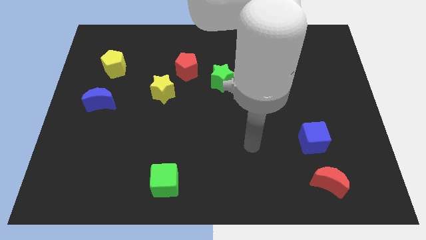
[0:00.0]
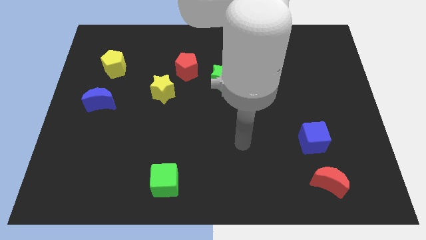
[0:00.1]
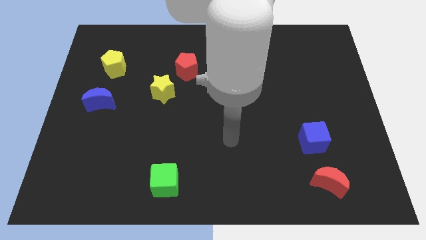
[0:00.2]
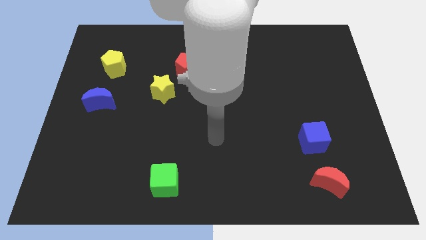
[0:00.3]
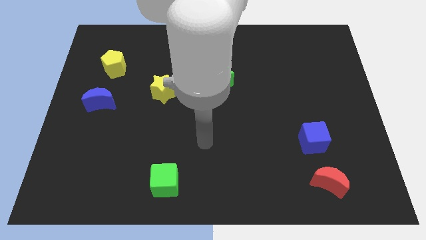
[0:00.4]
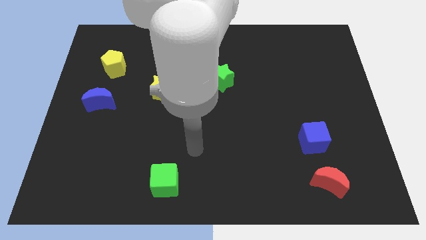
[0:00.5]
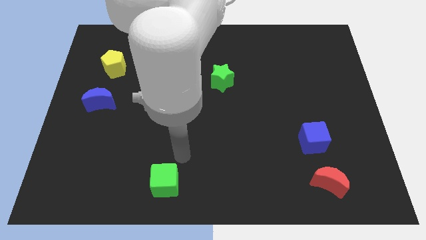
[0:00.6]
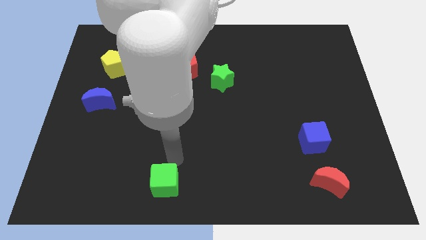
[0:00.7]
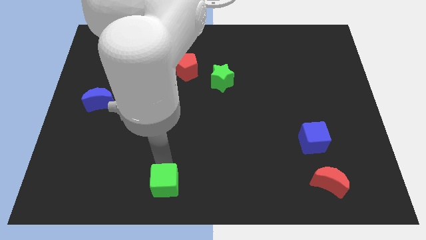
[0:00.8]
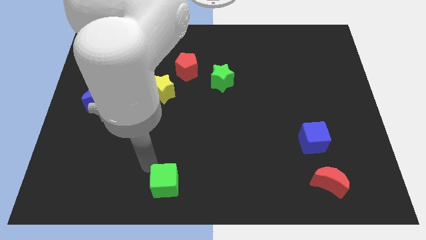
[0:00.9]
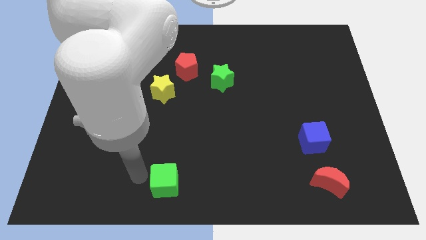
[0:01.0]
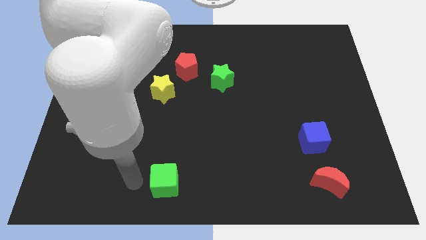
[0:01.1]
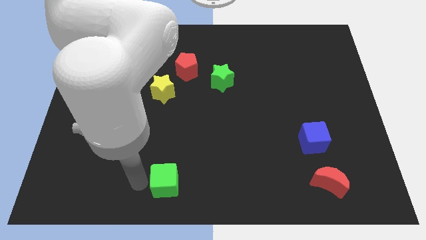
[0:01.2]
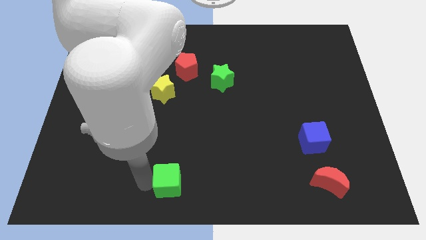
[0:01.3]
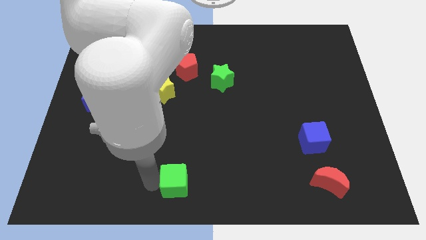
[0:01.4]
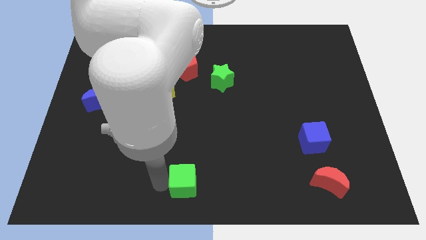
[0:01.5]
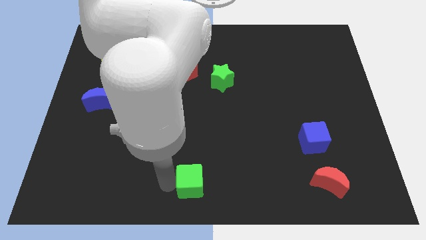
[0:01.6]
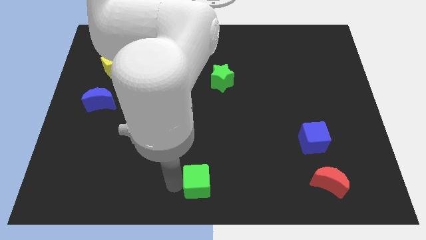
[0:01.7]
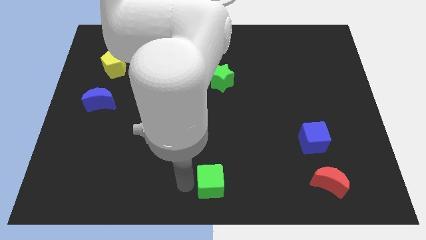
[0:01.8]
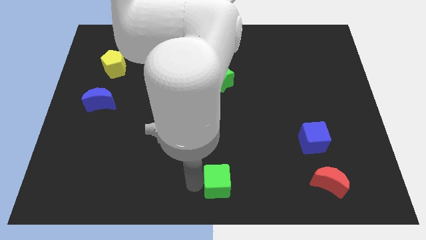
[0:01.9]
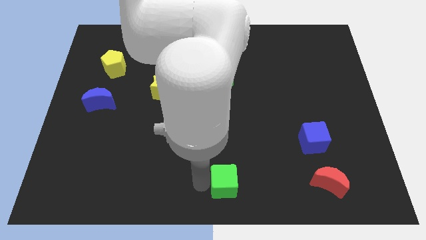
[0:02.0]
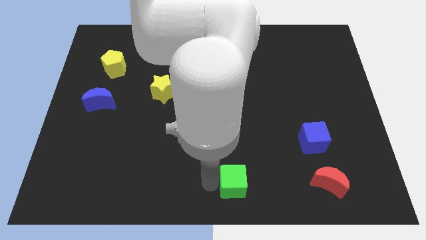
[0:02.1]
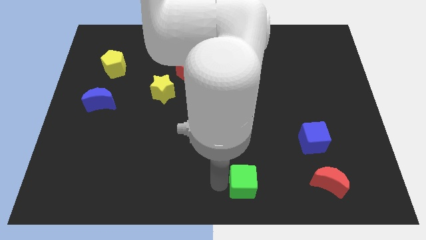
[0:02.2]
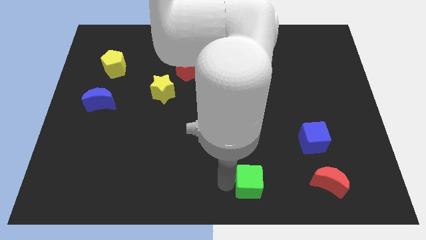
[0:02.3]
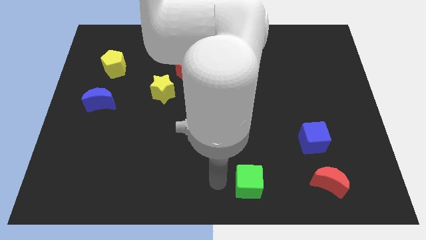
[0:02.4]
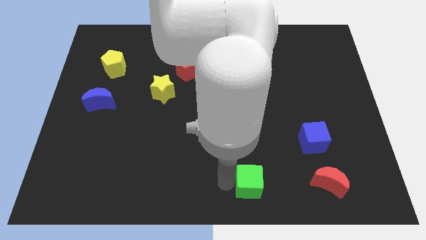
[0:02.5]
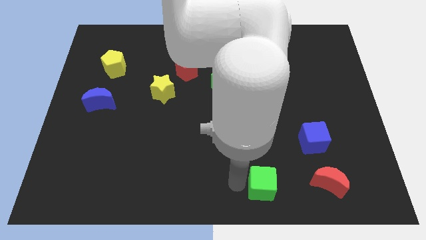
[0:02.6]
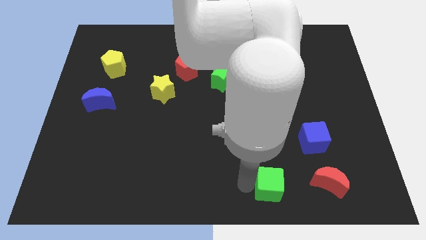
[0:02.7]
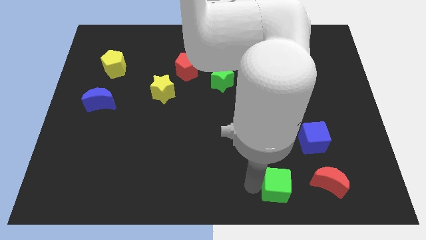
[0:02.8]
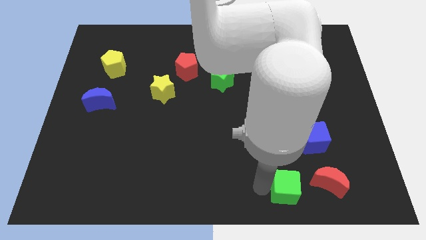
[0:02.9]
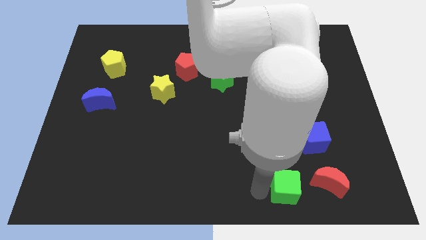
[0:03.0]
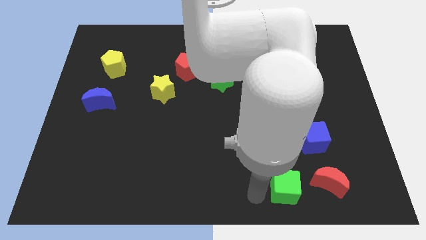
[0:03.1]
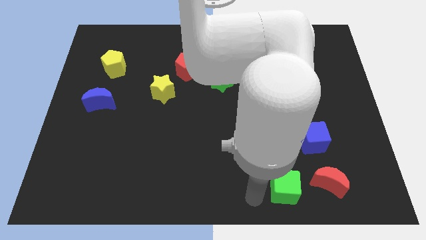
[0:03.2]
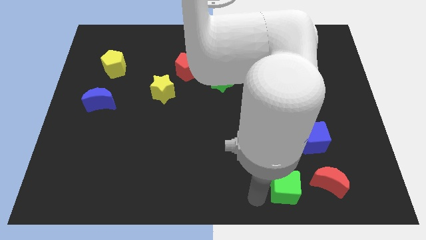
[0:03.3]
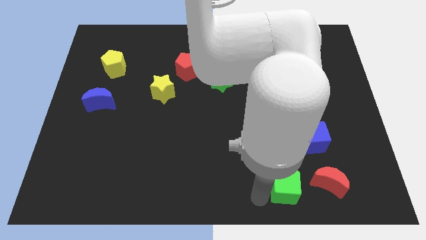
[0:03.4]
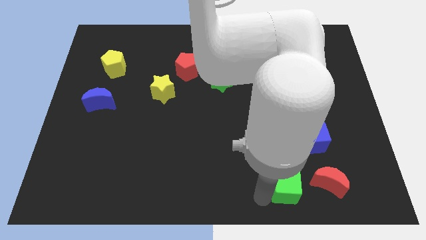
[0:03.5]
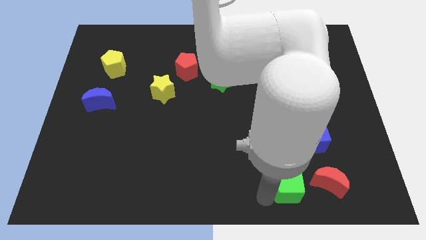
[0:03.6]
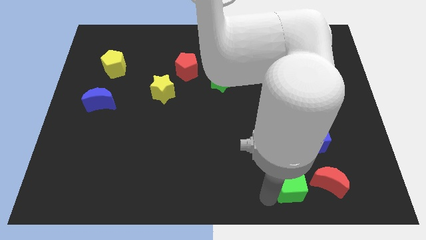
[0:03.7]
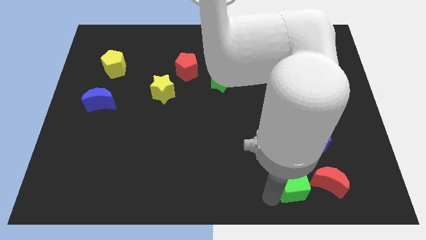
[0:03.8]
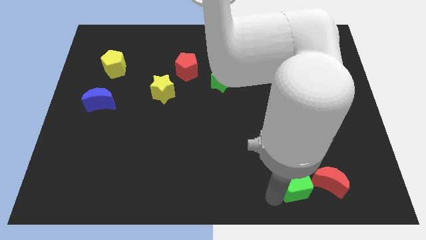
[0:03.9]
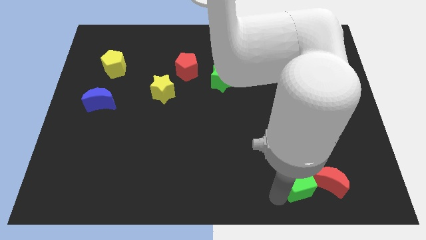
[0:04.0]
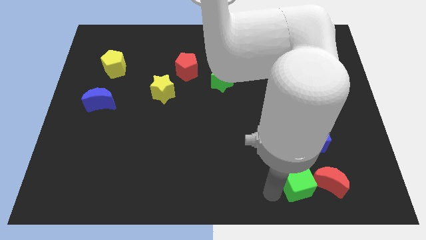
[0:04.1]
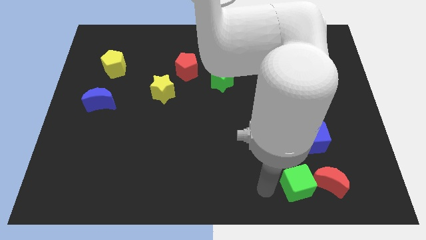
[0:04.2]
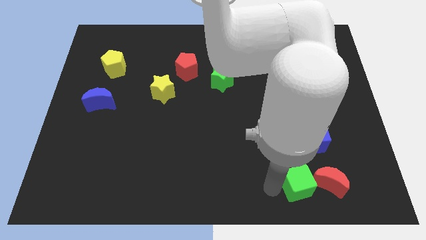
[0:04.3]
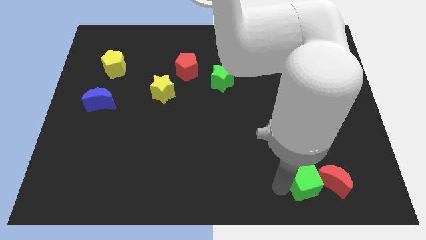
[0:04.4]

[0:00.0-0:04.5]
slide the green cube towards the red moon

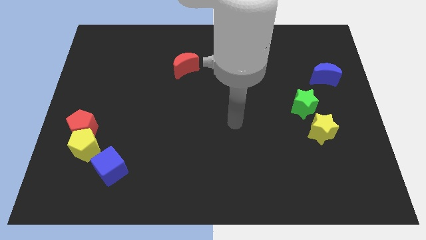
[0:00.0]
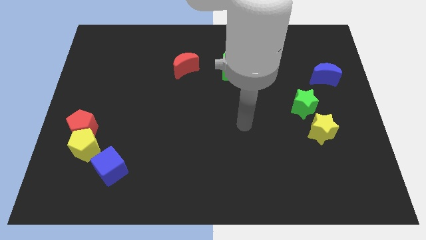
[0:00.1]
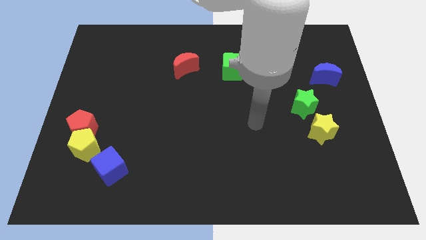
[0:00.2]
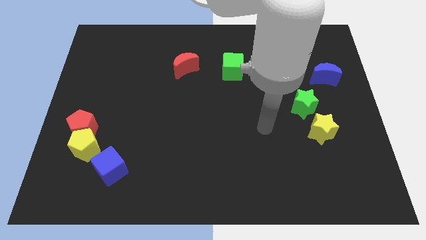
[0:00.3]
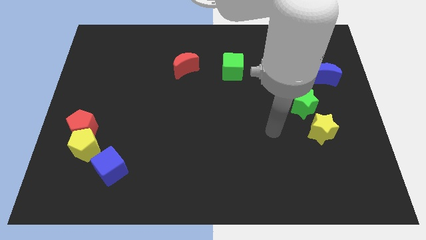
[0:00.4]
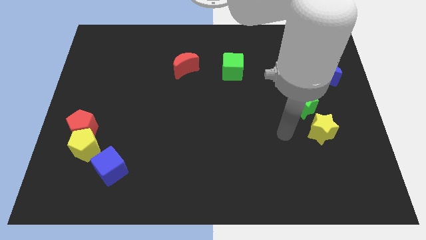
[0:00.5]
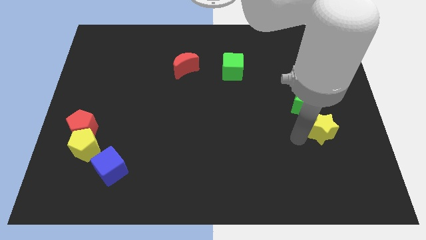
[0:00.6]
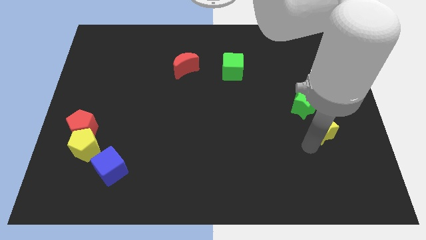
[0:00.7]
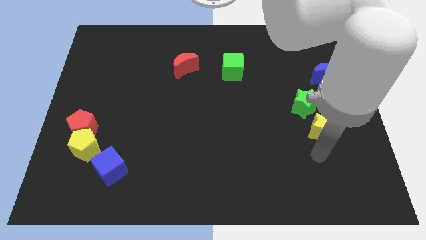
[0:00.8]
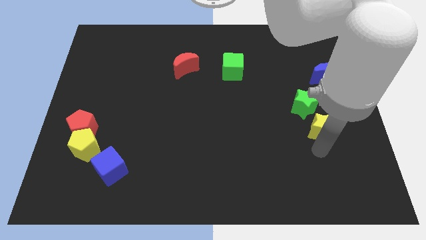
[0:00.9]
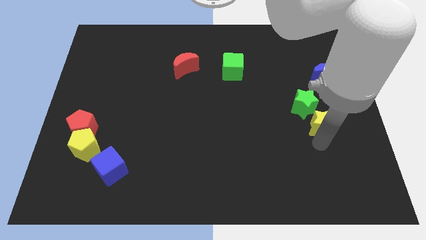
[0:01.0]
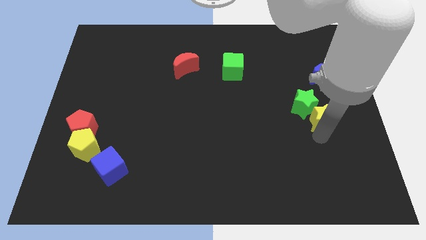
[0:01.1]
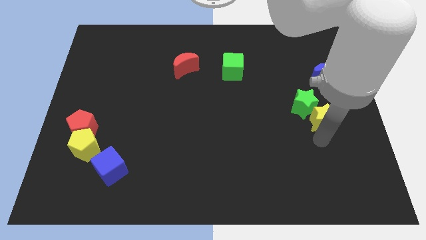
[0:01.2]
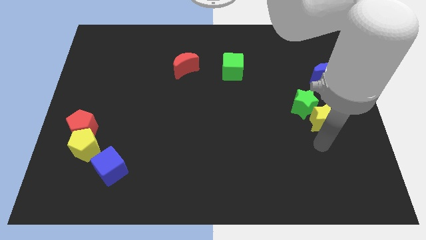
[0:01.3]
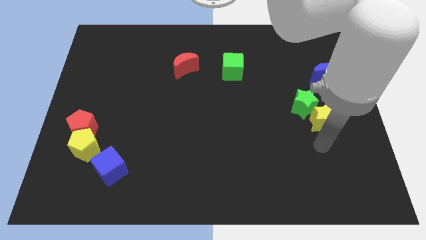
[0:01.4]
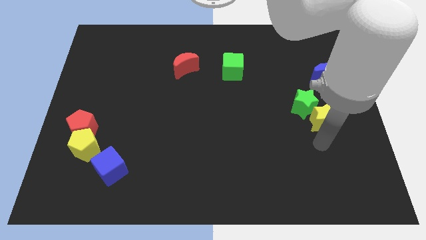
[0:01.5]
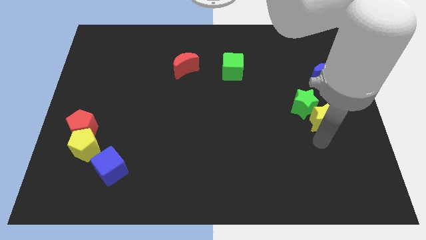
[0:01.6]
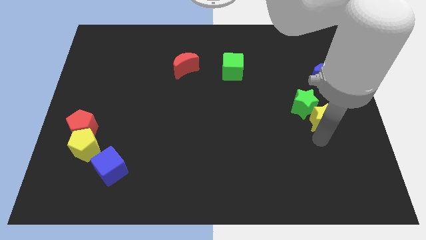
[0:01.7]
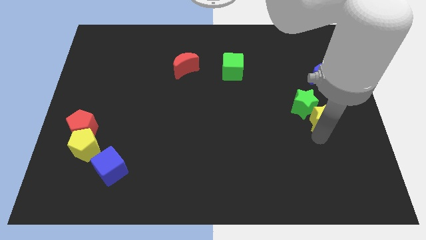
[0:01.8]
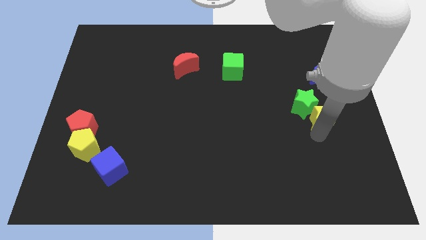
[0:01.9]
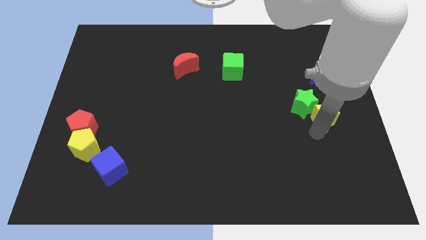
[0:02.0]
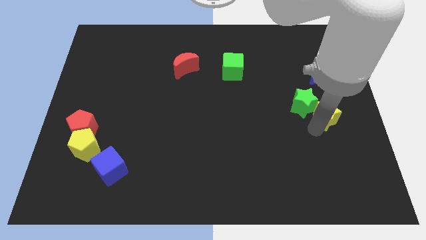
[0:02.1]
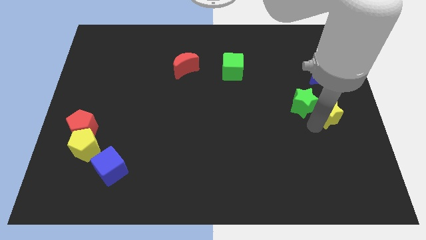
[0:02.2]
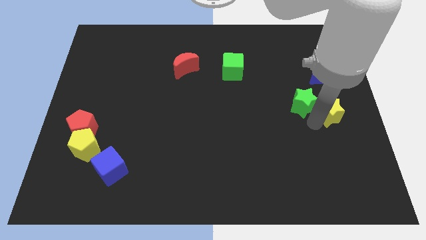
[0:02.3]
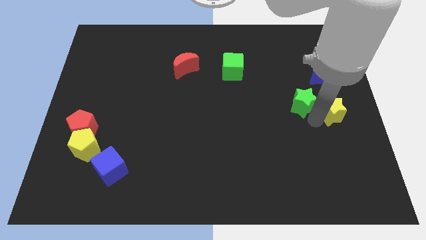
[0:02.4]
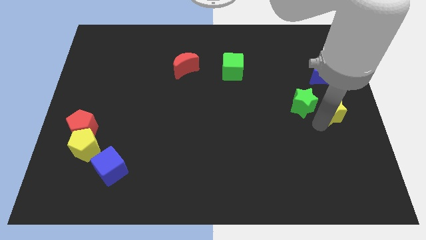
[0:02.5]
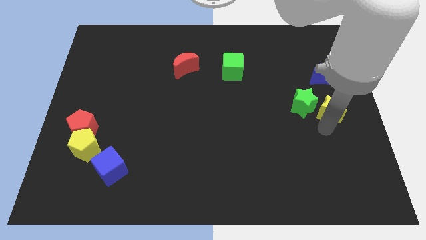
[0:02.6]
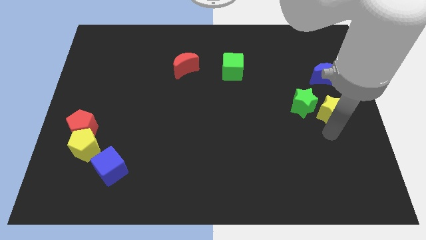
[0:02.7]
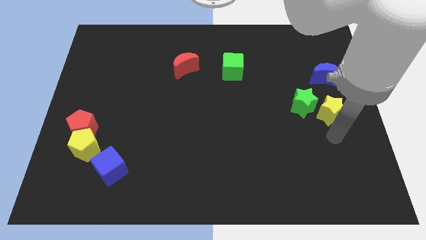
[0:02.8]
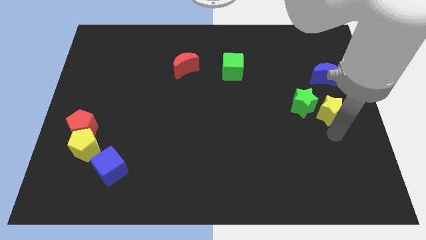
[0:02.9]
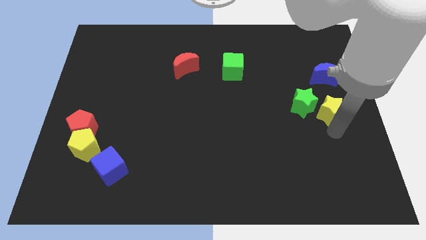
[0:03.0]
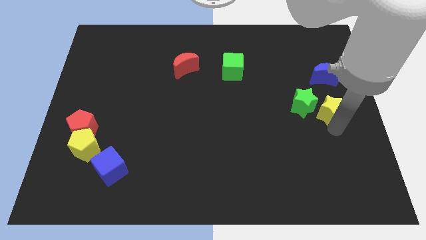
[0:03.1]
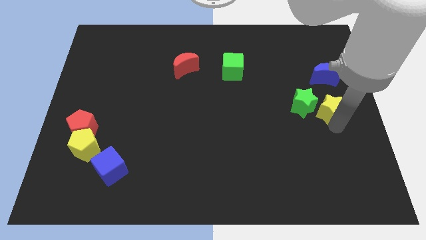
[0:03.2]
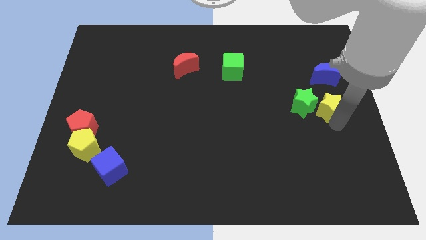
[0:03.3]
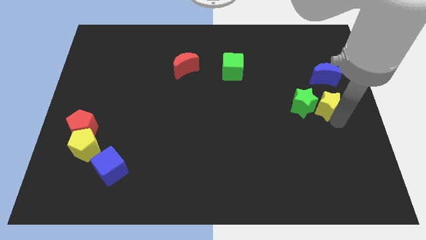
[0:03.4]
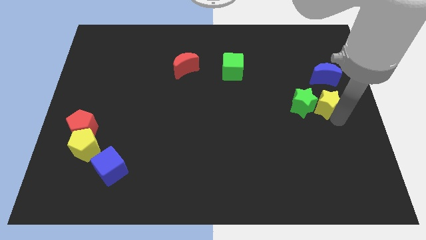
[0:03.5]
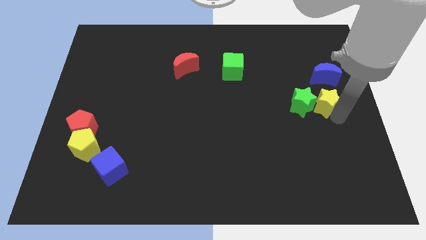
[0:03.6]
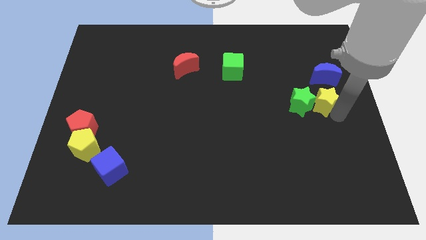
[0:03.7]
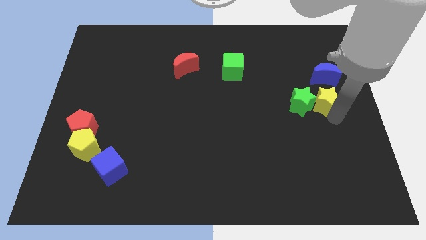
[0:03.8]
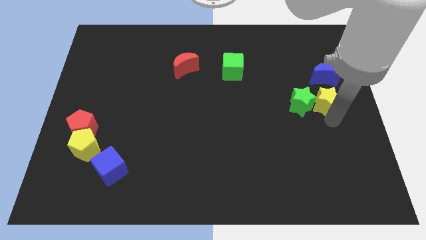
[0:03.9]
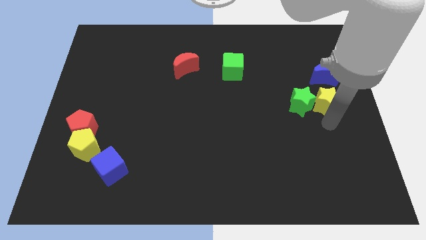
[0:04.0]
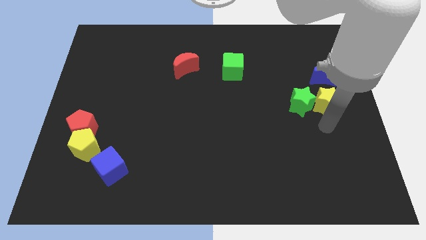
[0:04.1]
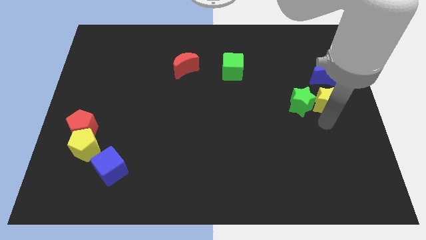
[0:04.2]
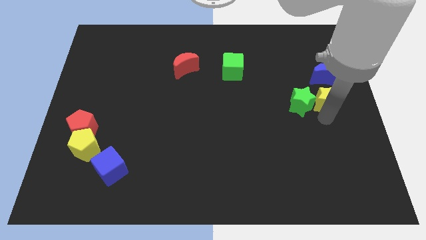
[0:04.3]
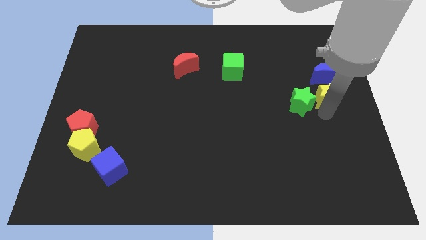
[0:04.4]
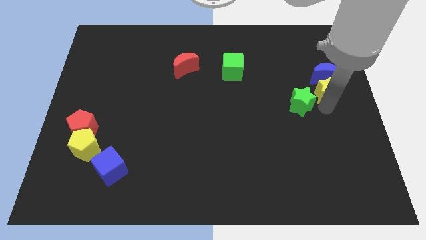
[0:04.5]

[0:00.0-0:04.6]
move the yellow star close to the blue moon
